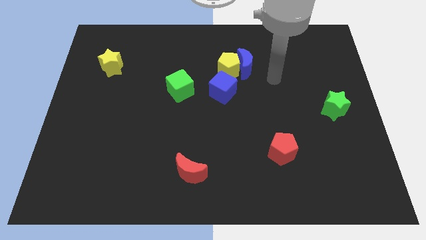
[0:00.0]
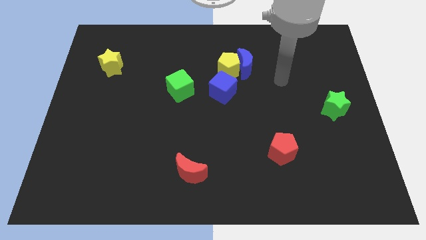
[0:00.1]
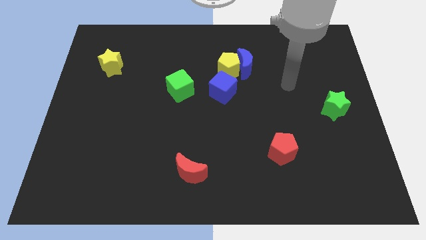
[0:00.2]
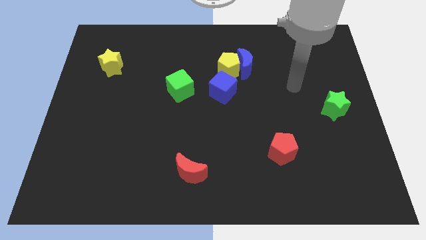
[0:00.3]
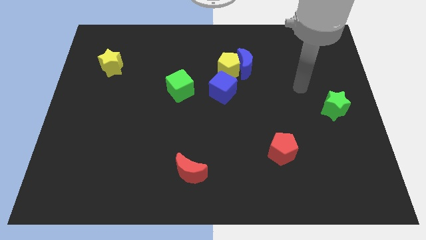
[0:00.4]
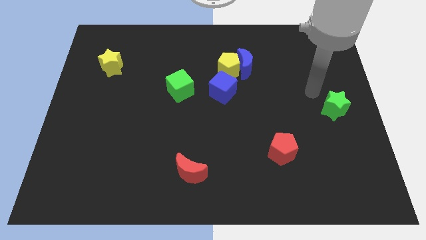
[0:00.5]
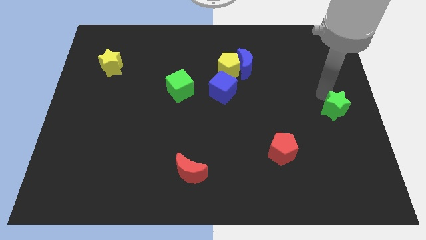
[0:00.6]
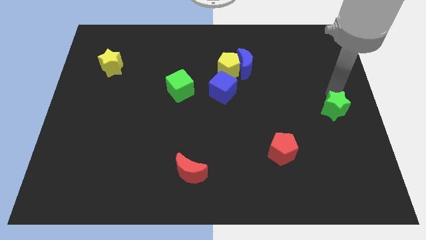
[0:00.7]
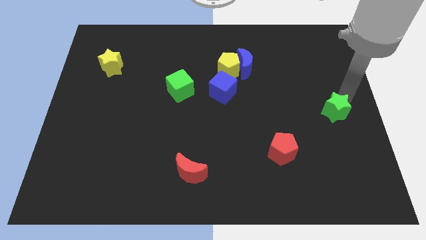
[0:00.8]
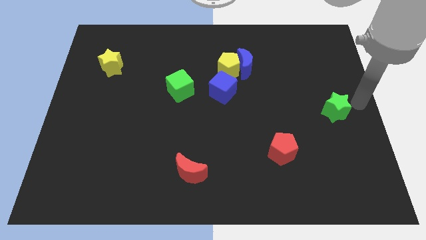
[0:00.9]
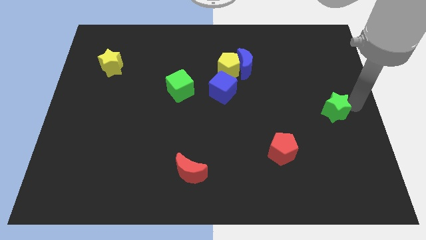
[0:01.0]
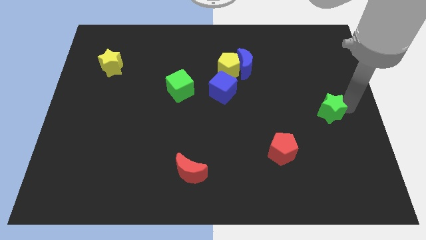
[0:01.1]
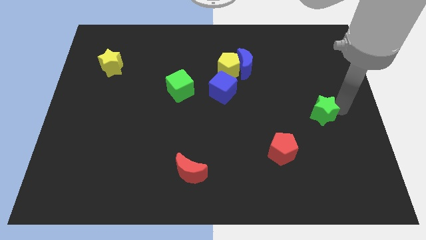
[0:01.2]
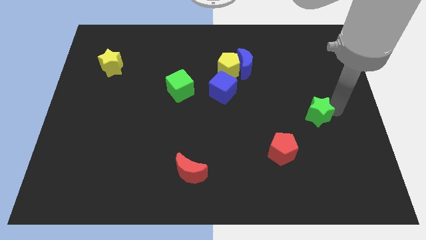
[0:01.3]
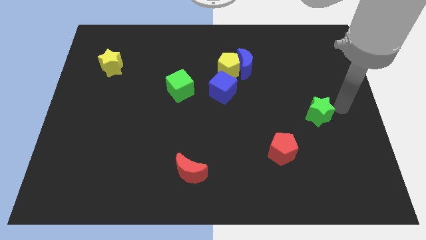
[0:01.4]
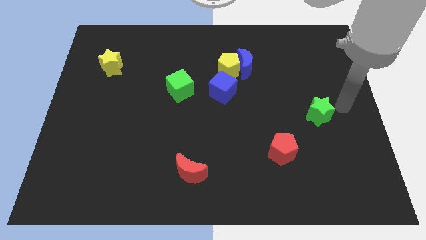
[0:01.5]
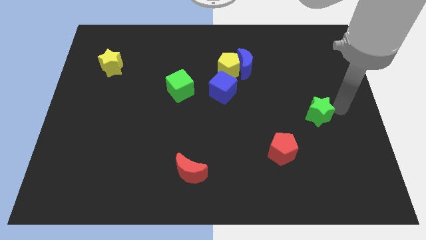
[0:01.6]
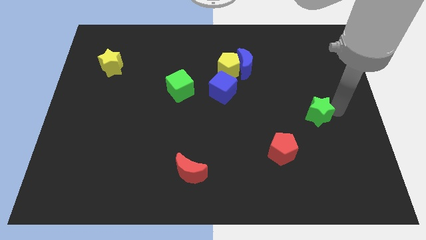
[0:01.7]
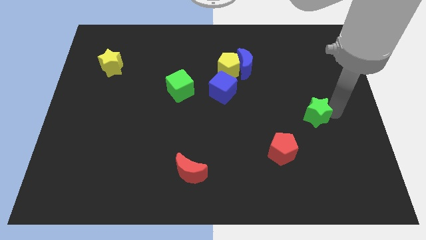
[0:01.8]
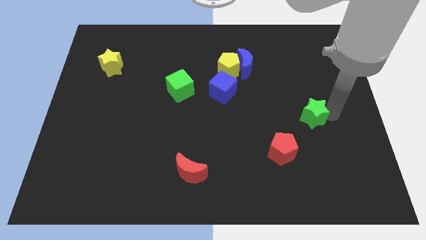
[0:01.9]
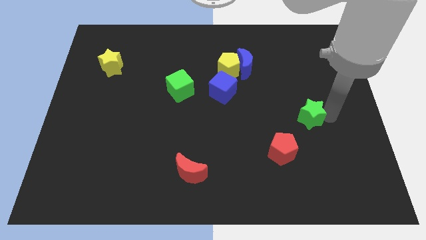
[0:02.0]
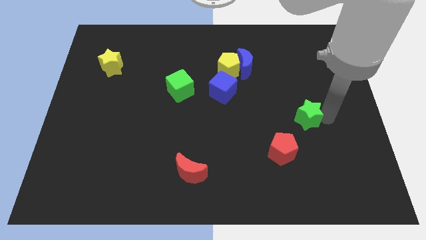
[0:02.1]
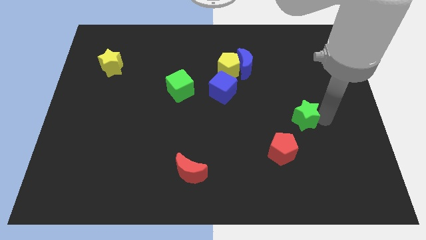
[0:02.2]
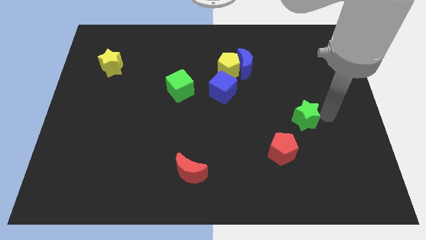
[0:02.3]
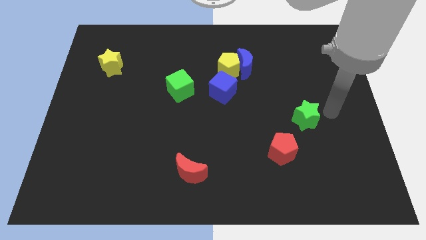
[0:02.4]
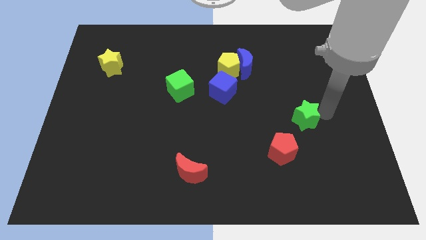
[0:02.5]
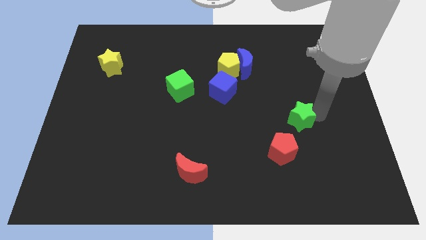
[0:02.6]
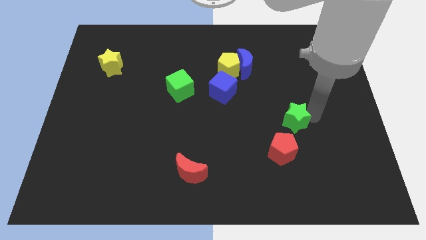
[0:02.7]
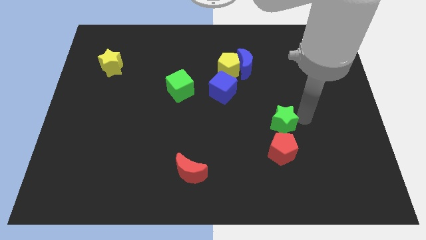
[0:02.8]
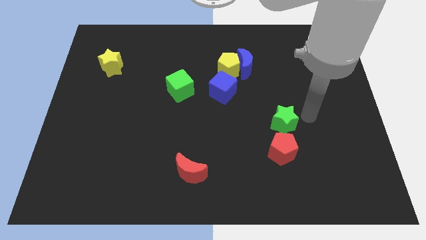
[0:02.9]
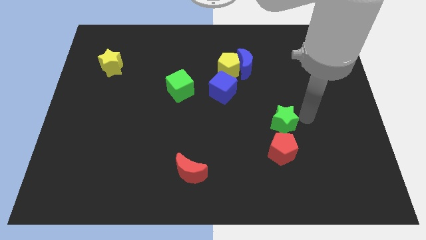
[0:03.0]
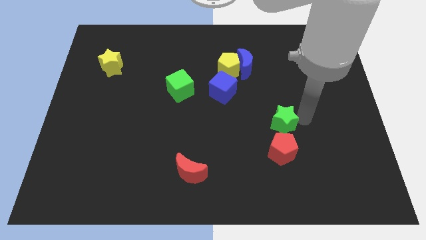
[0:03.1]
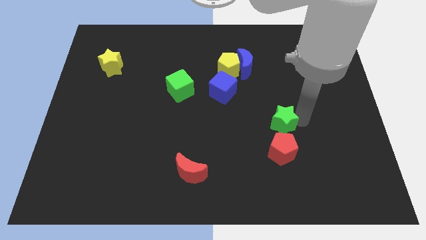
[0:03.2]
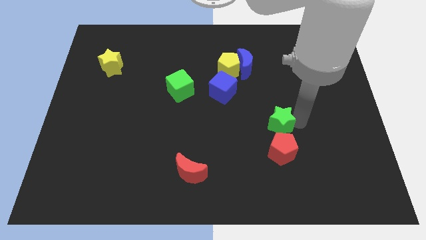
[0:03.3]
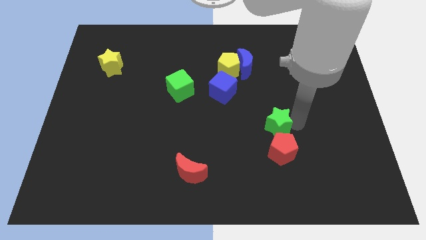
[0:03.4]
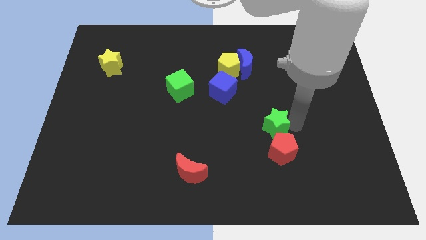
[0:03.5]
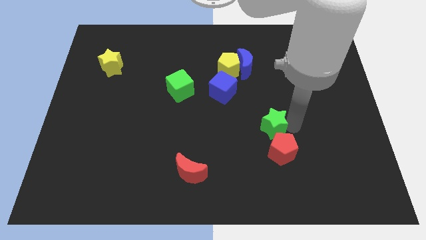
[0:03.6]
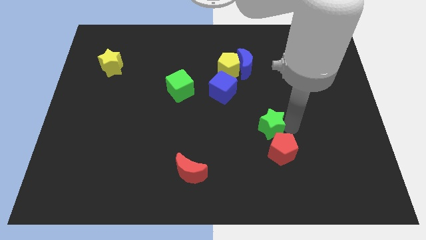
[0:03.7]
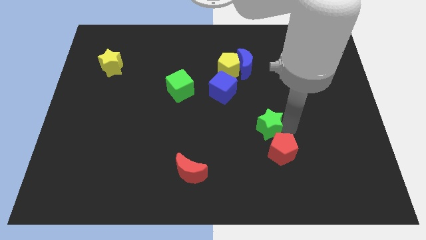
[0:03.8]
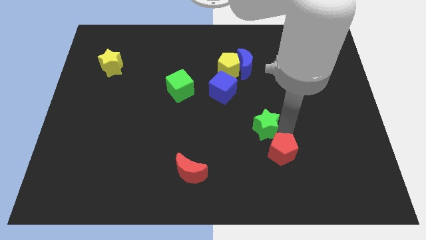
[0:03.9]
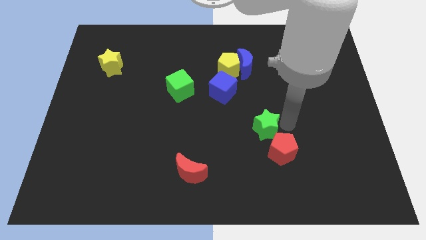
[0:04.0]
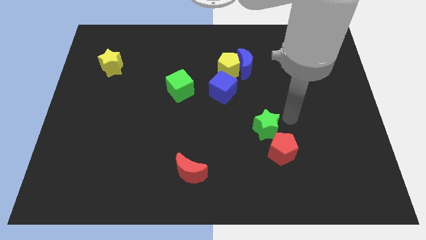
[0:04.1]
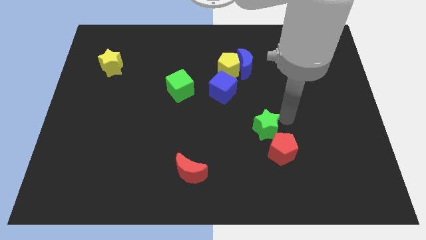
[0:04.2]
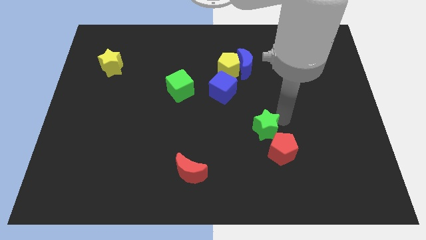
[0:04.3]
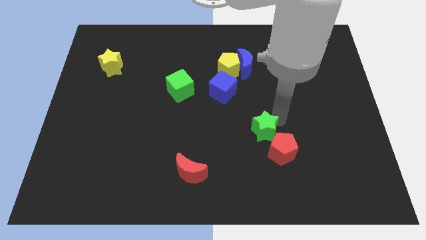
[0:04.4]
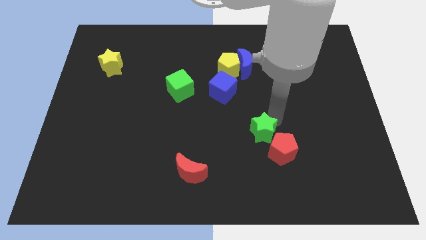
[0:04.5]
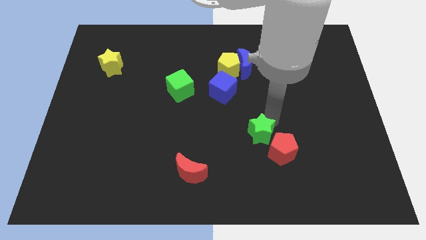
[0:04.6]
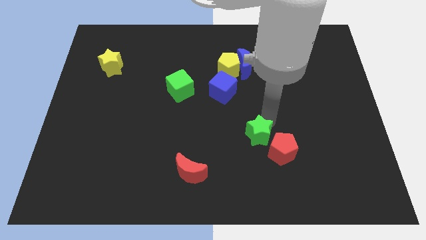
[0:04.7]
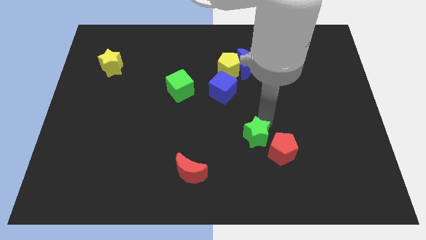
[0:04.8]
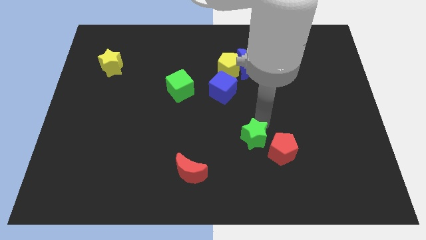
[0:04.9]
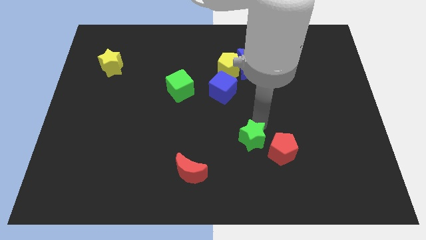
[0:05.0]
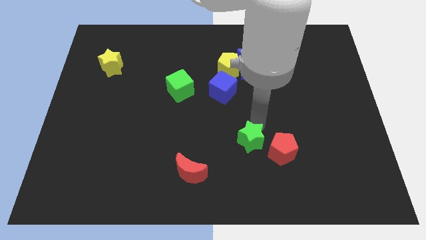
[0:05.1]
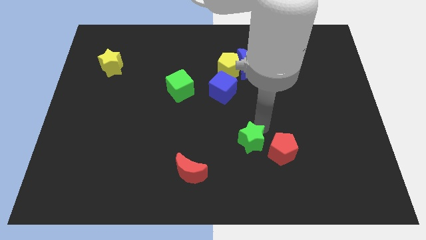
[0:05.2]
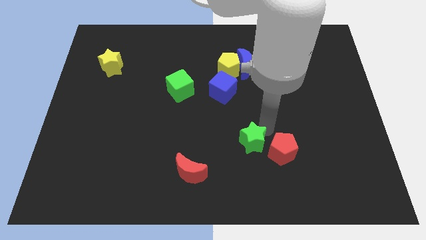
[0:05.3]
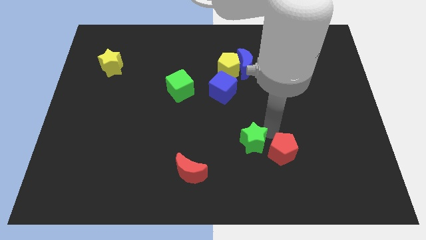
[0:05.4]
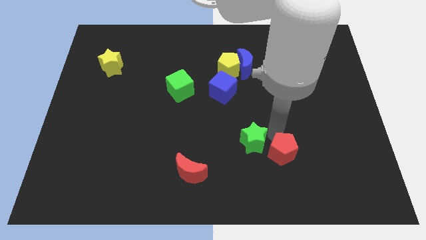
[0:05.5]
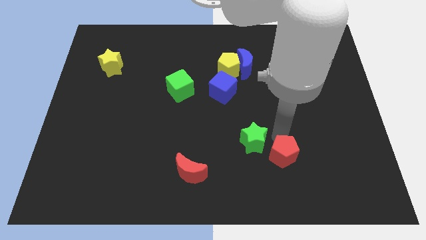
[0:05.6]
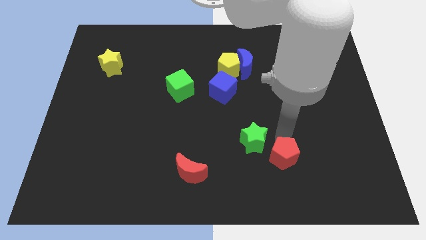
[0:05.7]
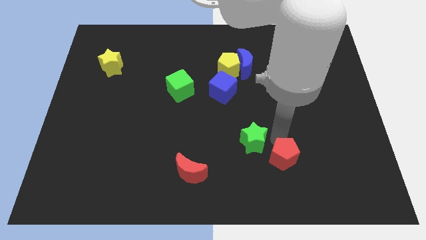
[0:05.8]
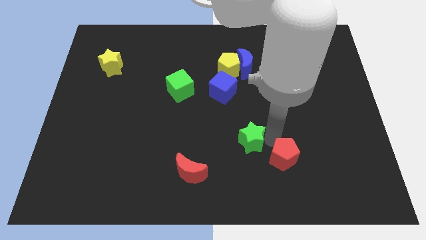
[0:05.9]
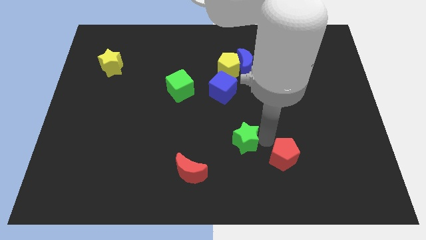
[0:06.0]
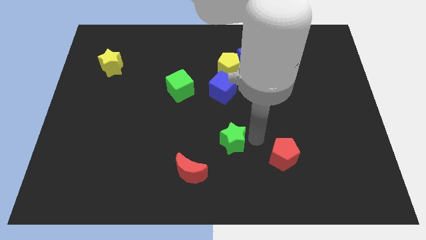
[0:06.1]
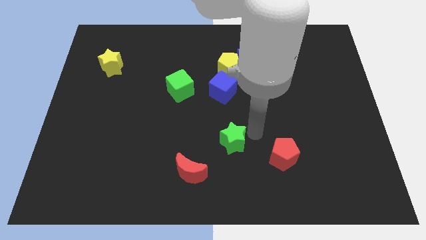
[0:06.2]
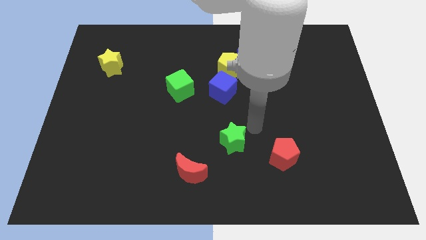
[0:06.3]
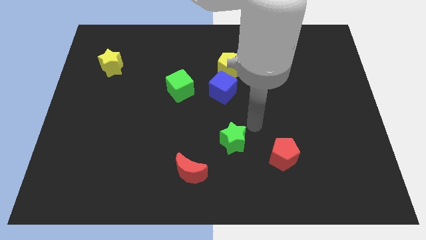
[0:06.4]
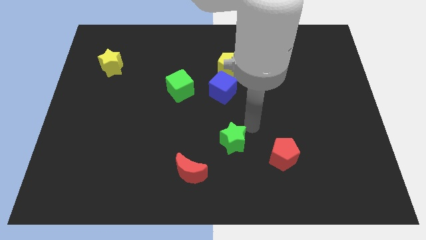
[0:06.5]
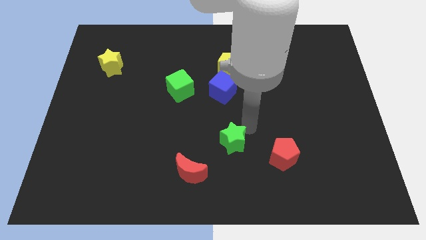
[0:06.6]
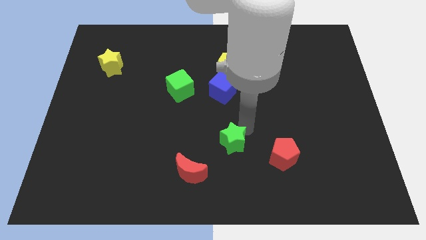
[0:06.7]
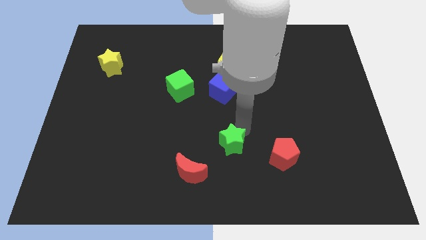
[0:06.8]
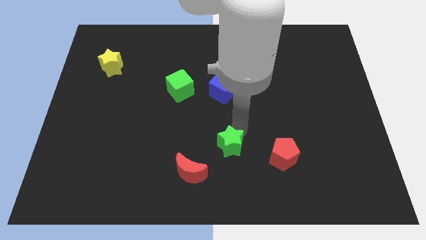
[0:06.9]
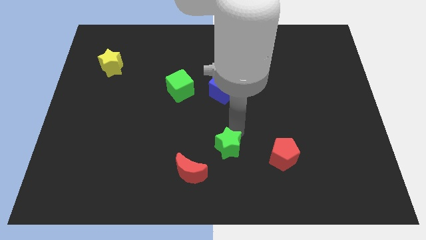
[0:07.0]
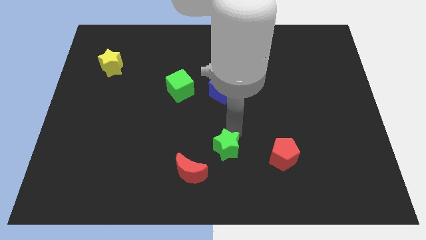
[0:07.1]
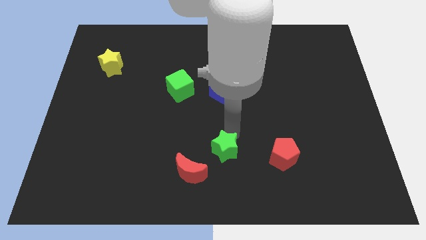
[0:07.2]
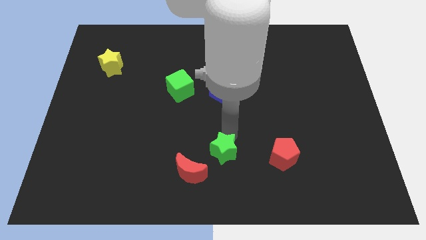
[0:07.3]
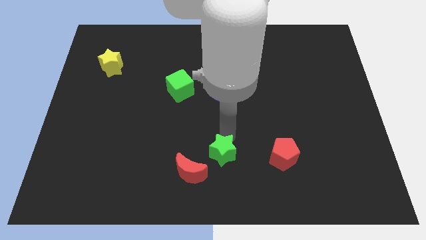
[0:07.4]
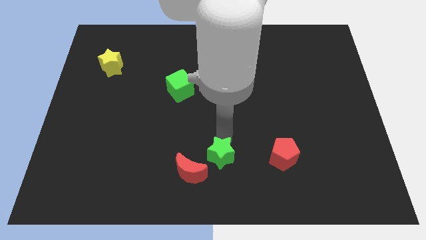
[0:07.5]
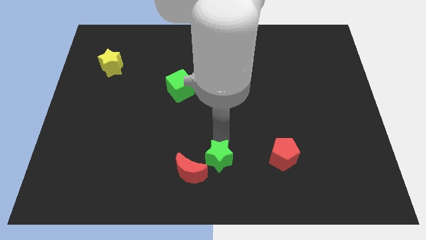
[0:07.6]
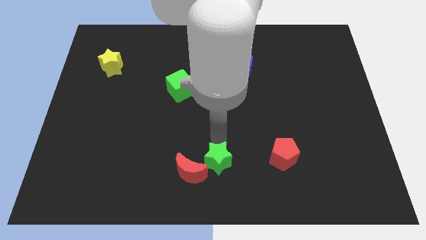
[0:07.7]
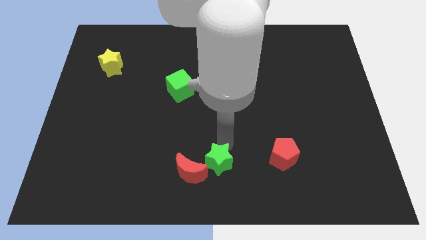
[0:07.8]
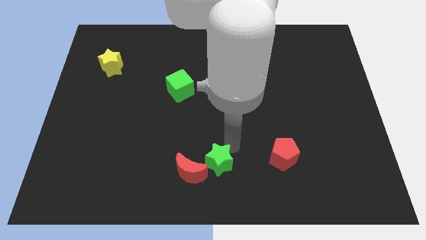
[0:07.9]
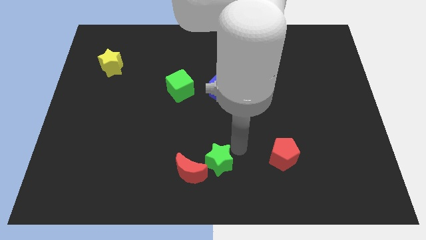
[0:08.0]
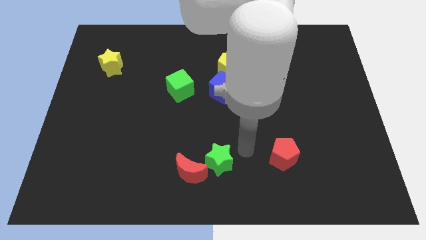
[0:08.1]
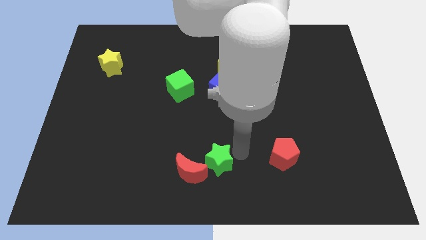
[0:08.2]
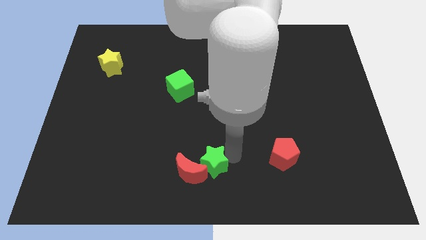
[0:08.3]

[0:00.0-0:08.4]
move the green star next to the red moon
